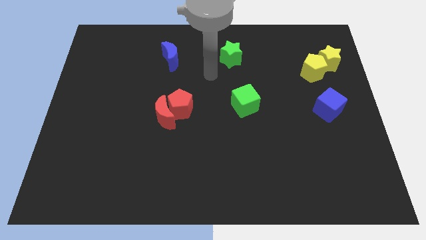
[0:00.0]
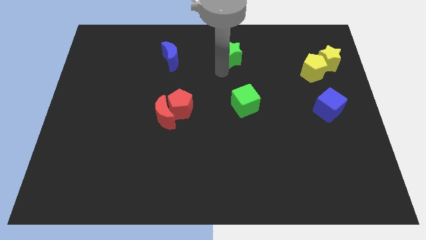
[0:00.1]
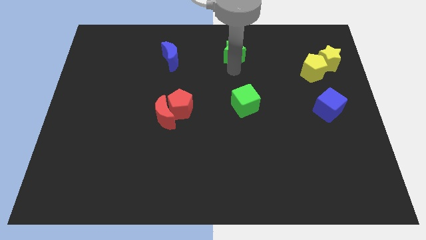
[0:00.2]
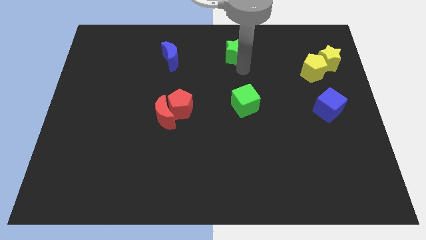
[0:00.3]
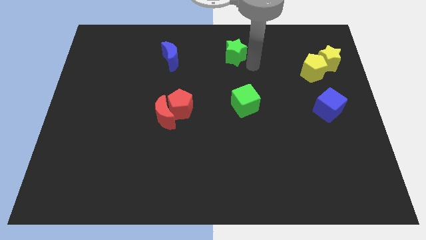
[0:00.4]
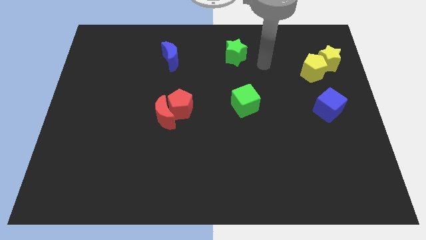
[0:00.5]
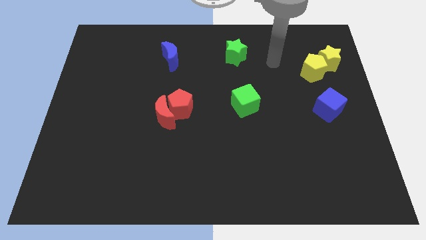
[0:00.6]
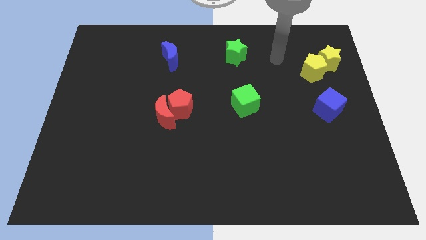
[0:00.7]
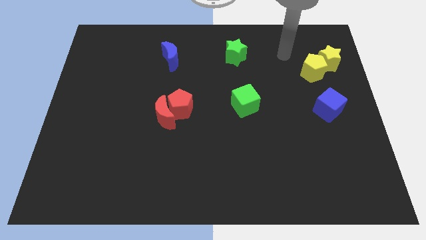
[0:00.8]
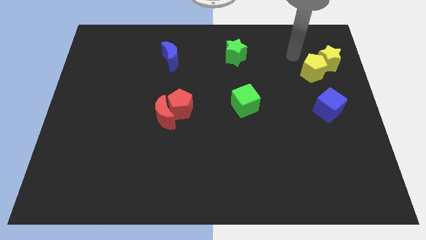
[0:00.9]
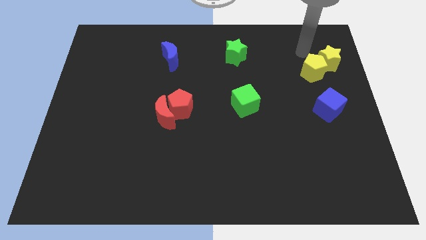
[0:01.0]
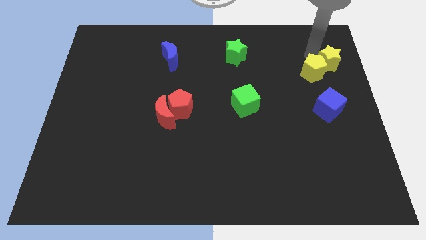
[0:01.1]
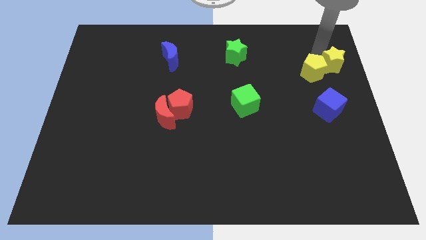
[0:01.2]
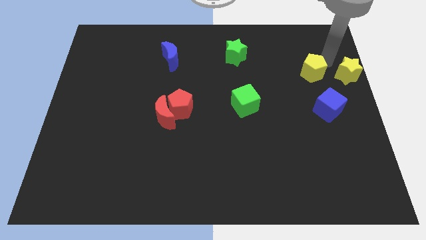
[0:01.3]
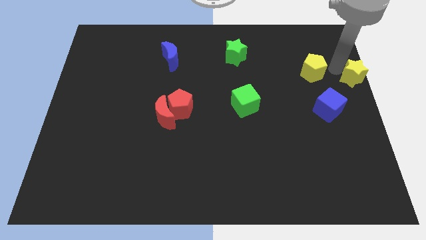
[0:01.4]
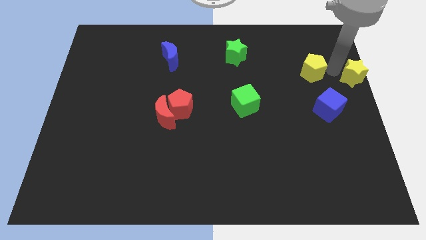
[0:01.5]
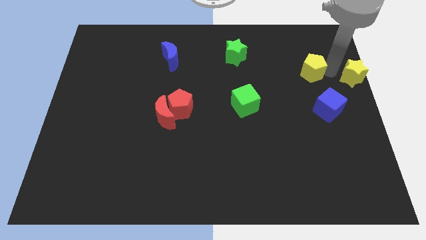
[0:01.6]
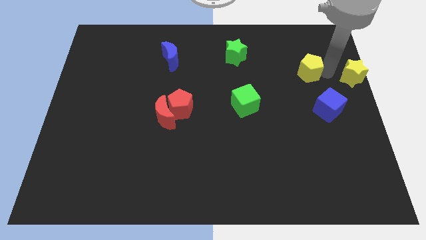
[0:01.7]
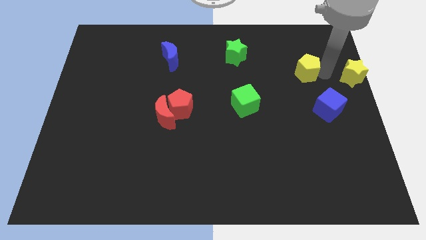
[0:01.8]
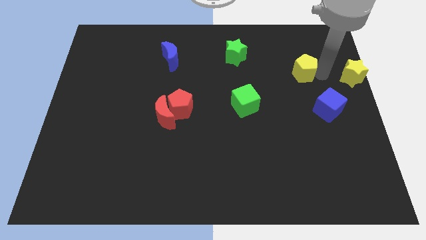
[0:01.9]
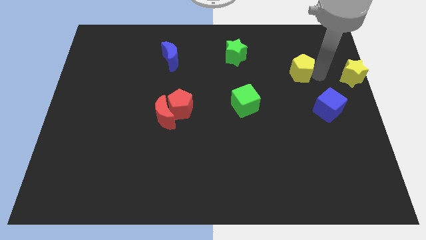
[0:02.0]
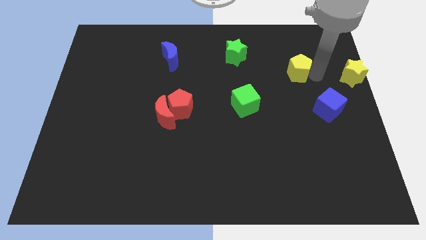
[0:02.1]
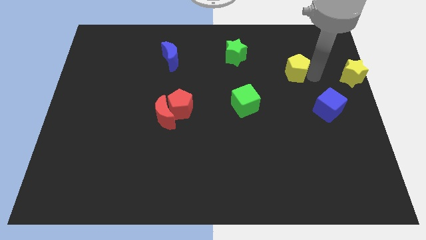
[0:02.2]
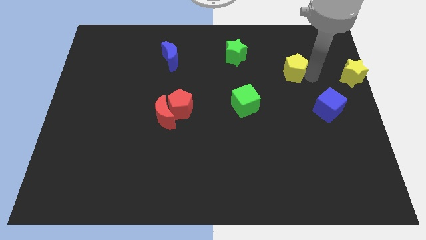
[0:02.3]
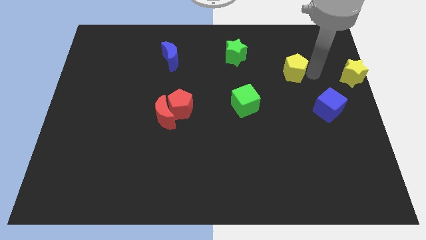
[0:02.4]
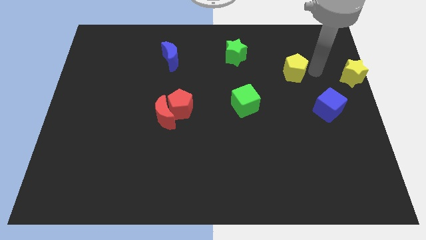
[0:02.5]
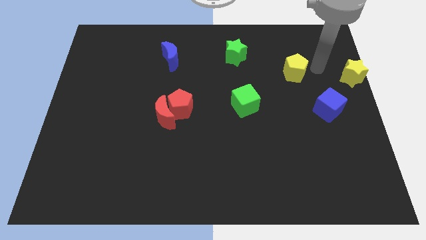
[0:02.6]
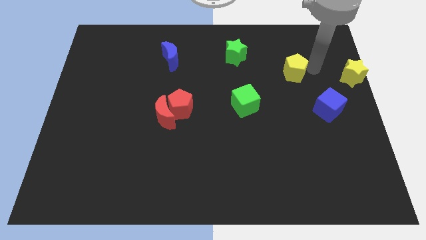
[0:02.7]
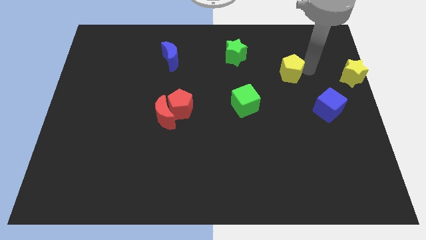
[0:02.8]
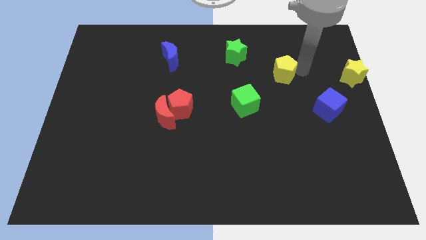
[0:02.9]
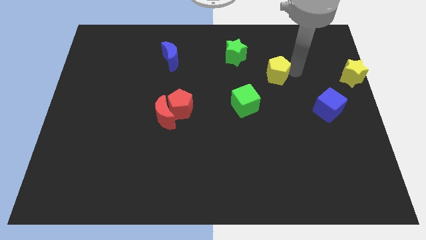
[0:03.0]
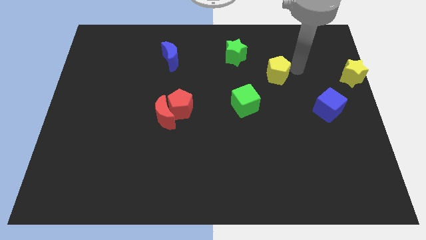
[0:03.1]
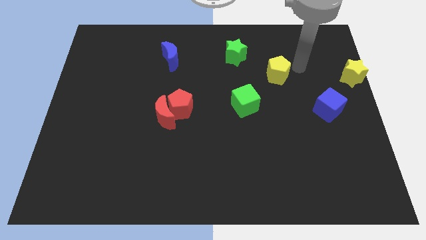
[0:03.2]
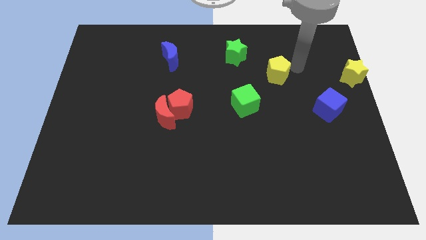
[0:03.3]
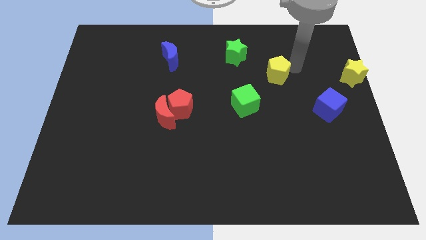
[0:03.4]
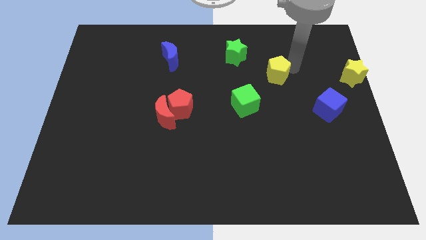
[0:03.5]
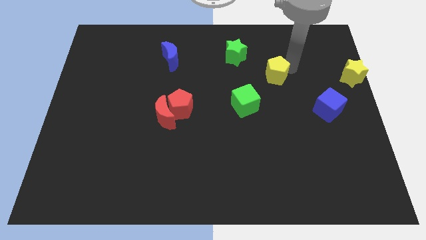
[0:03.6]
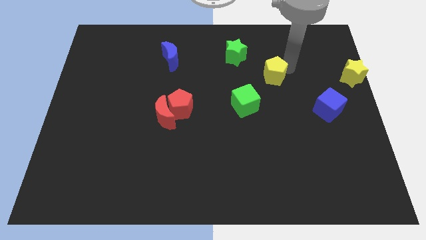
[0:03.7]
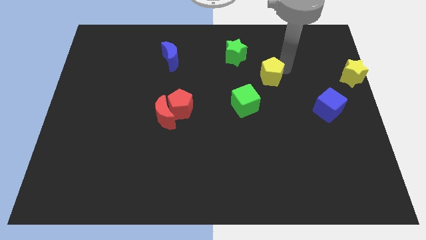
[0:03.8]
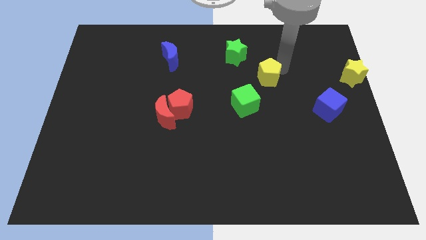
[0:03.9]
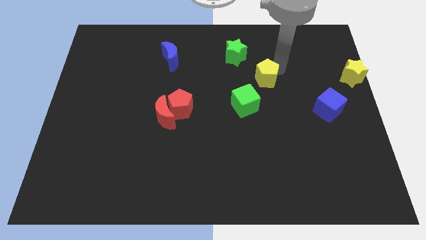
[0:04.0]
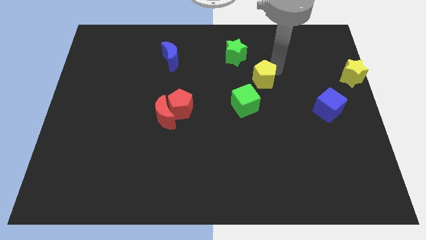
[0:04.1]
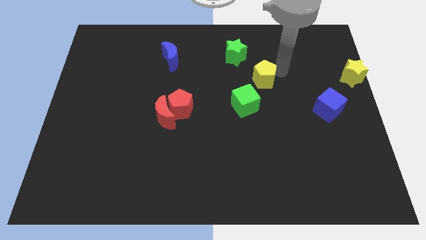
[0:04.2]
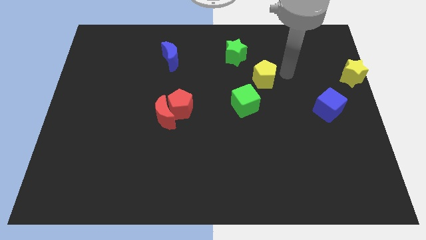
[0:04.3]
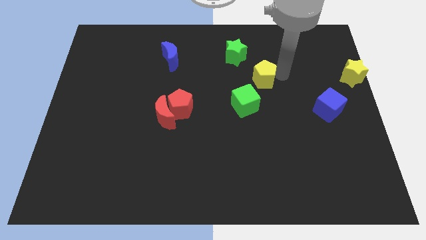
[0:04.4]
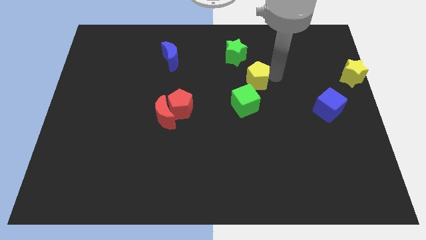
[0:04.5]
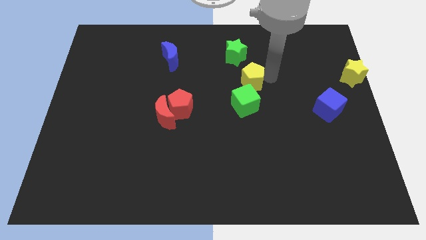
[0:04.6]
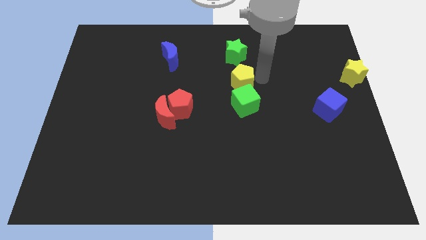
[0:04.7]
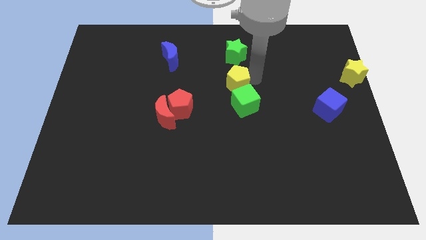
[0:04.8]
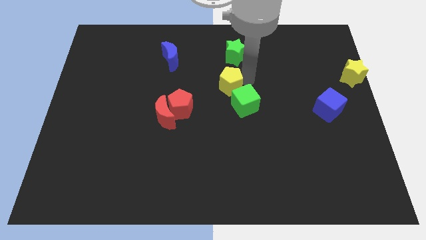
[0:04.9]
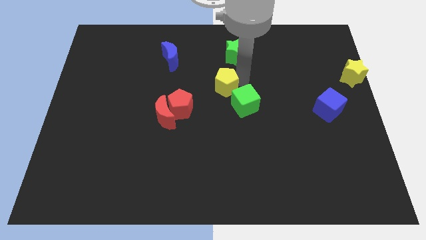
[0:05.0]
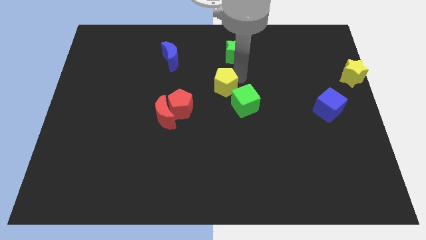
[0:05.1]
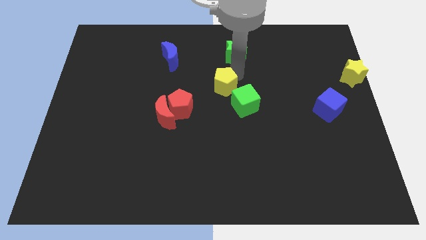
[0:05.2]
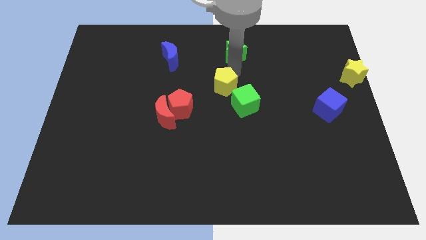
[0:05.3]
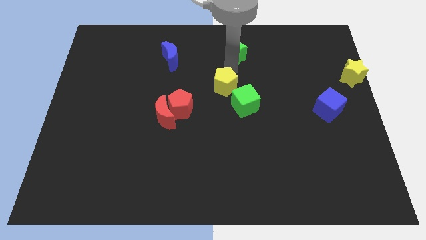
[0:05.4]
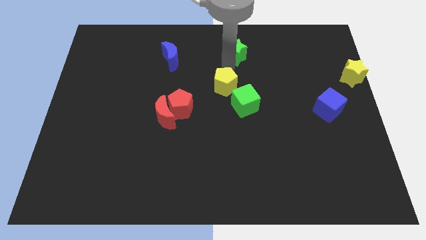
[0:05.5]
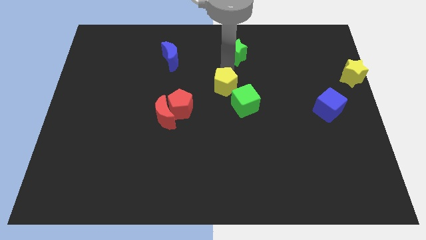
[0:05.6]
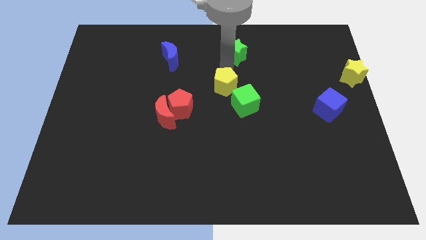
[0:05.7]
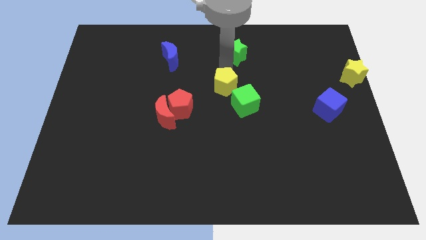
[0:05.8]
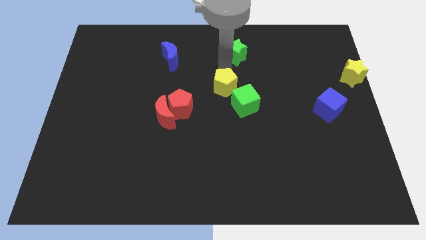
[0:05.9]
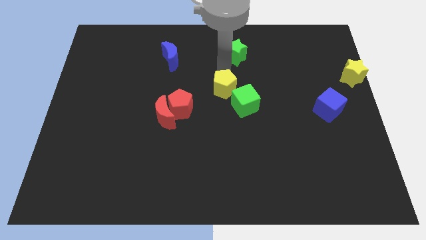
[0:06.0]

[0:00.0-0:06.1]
slide the yellow pentagon to the left side of the green cube
